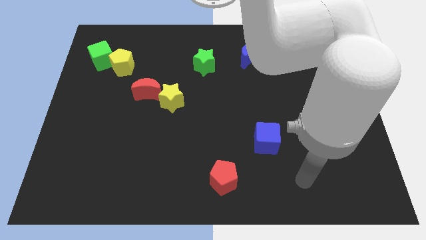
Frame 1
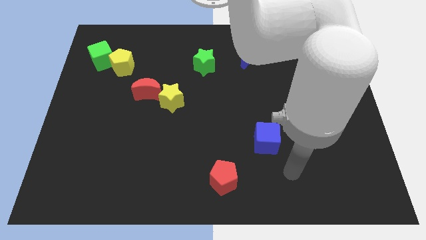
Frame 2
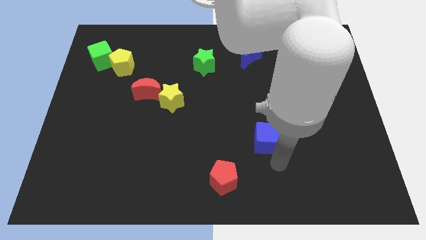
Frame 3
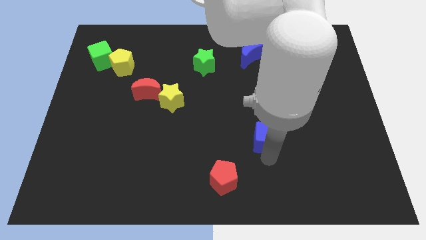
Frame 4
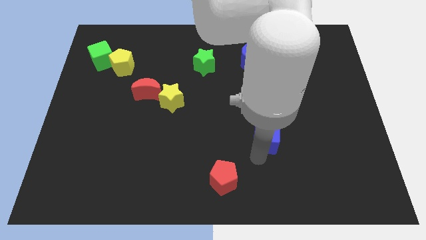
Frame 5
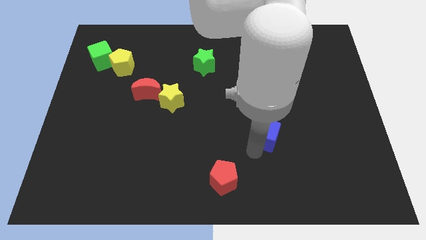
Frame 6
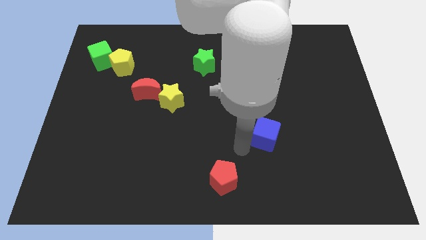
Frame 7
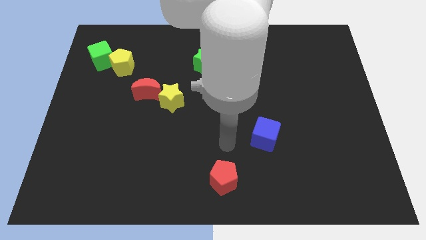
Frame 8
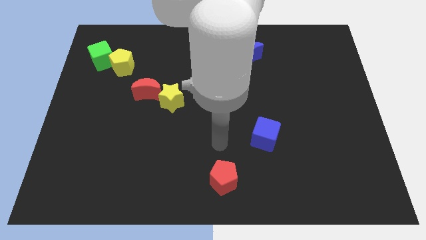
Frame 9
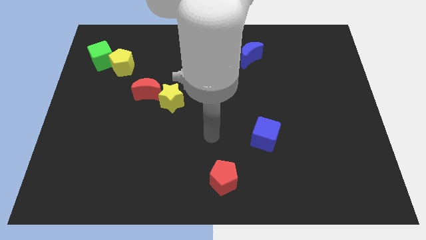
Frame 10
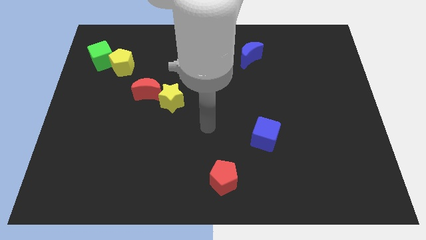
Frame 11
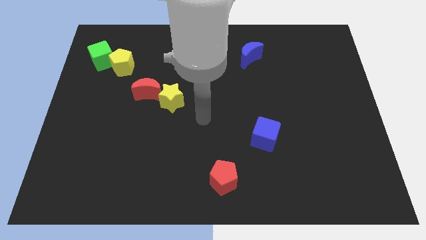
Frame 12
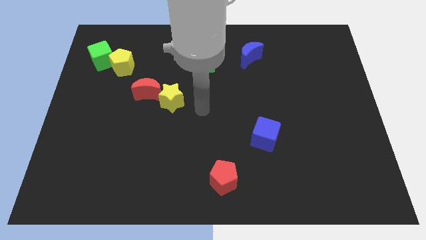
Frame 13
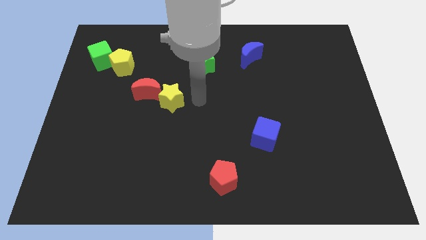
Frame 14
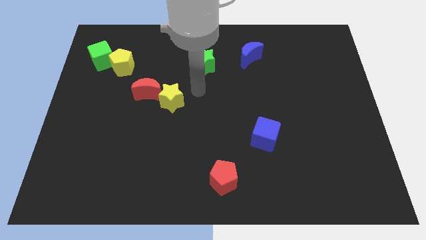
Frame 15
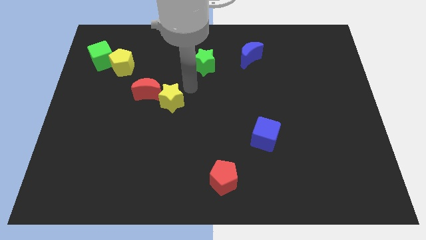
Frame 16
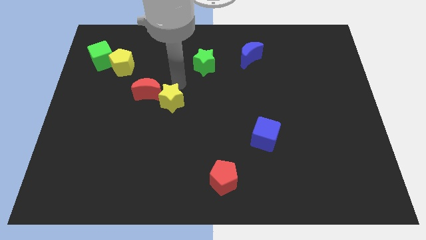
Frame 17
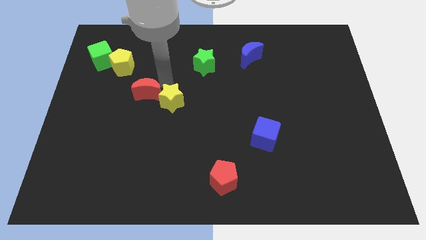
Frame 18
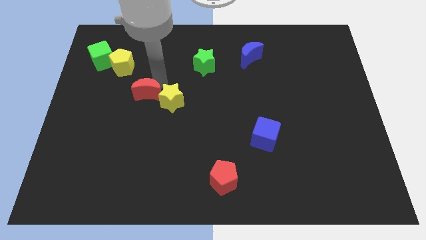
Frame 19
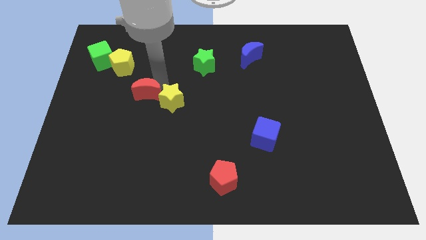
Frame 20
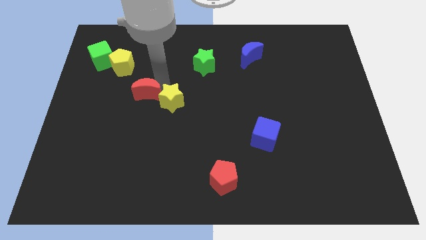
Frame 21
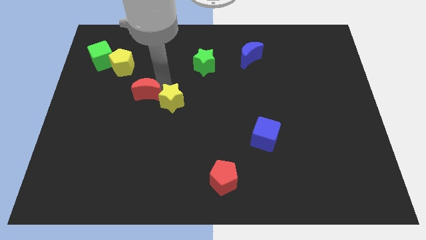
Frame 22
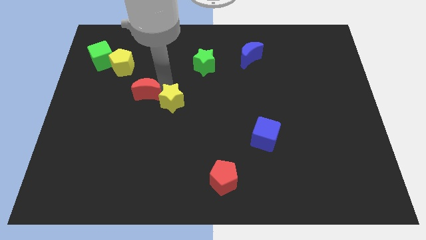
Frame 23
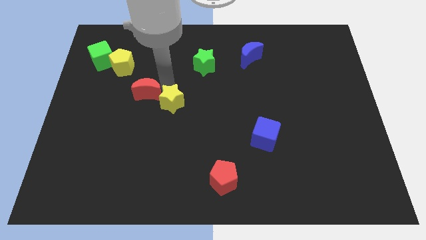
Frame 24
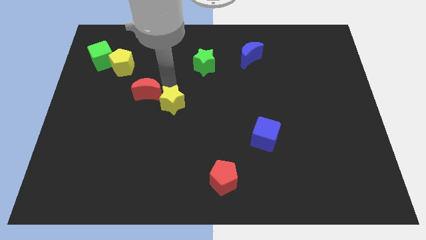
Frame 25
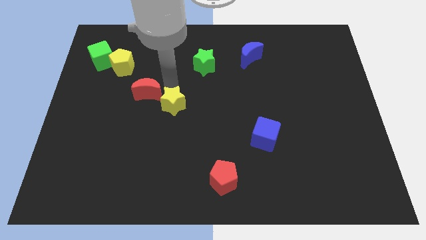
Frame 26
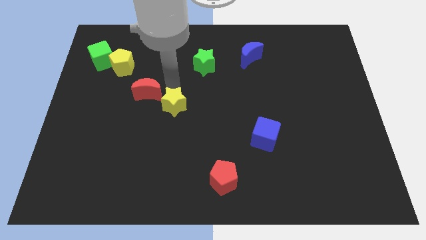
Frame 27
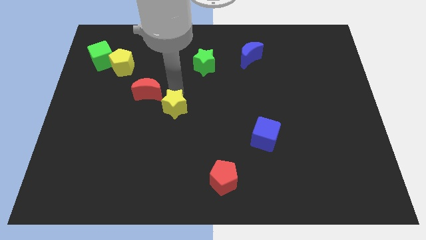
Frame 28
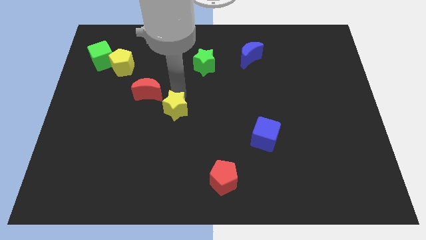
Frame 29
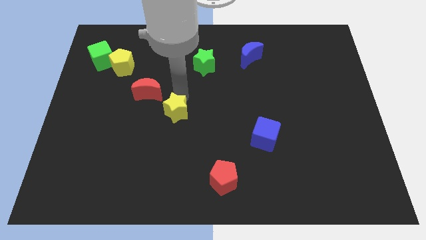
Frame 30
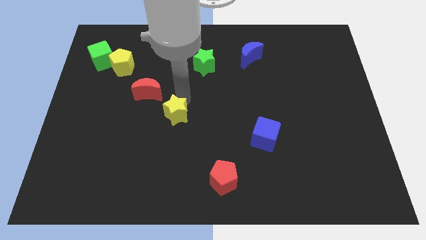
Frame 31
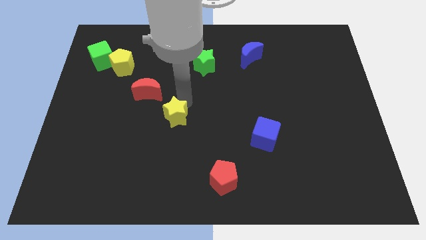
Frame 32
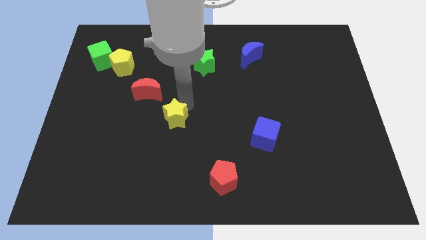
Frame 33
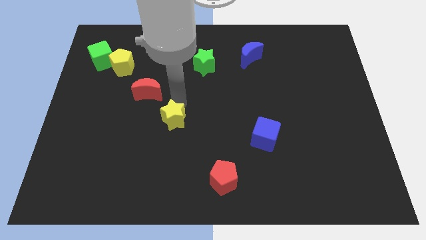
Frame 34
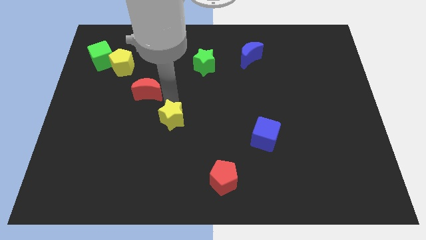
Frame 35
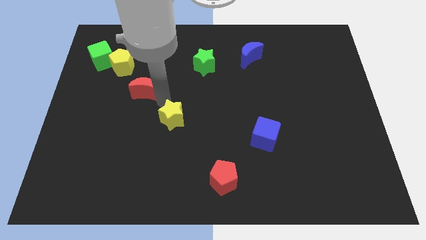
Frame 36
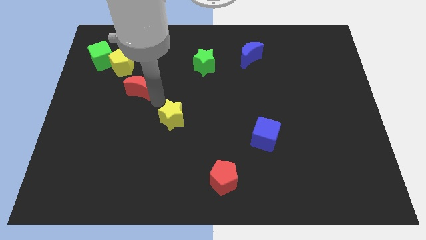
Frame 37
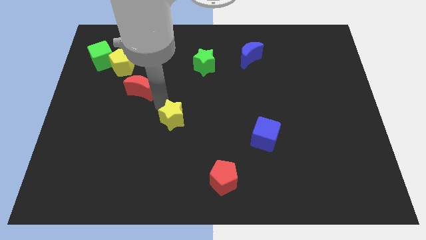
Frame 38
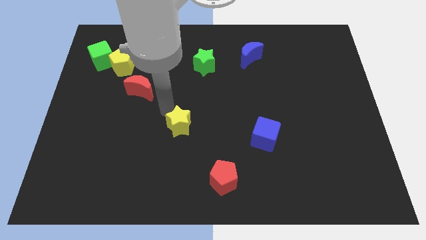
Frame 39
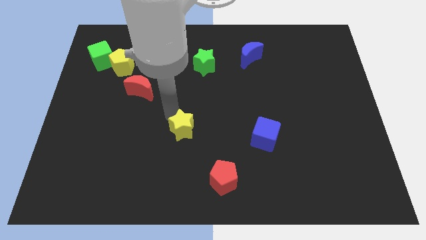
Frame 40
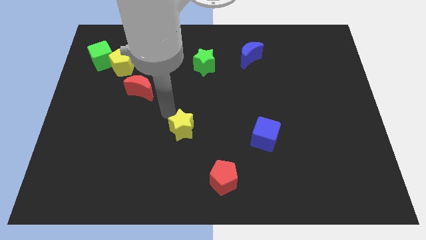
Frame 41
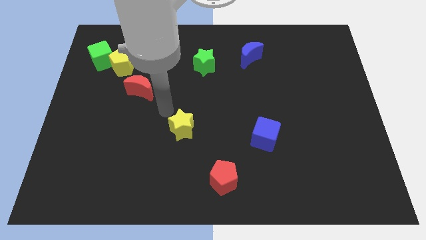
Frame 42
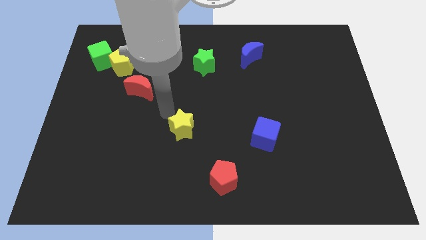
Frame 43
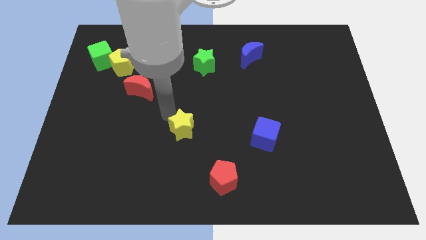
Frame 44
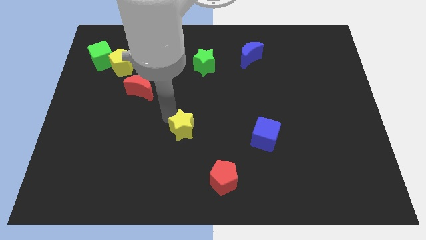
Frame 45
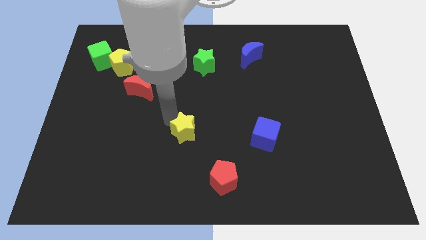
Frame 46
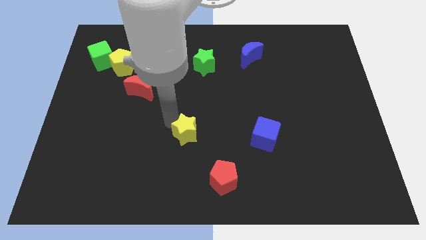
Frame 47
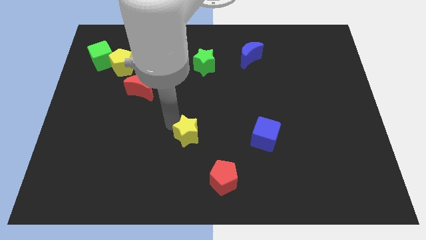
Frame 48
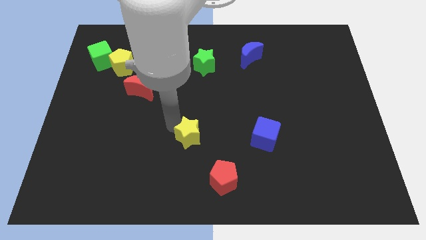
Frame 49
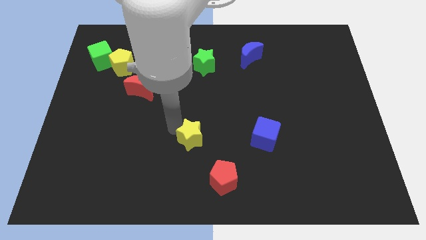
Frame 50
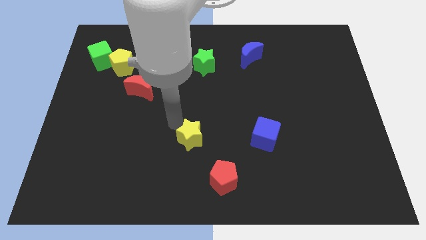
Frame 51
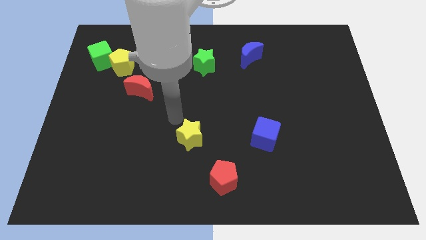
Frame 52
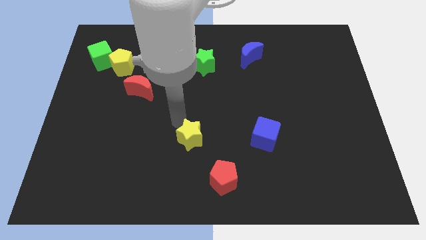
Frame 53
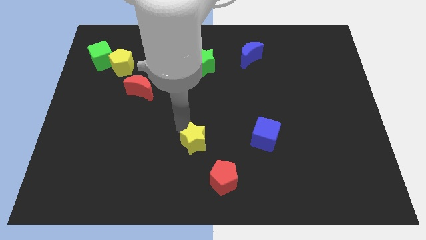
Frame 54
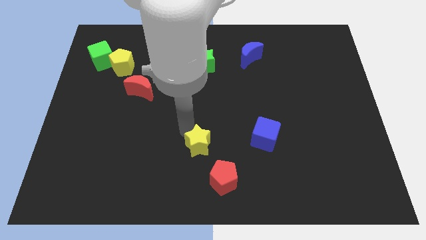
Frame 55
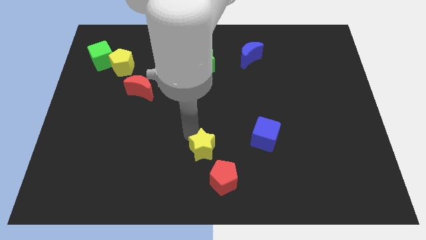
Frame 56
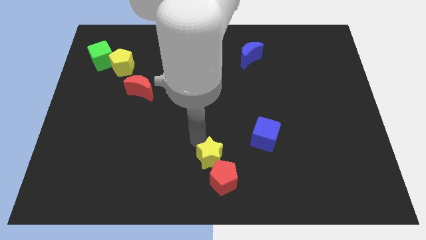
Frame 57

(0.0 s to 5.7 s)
move the yellow star close to the red pentagon

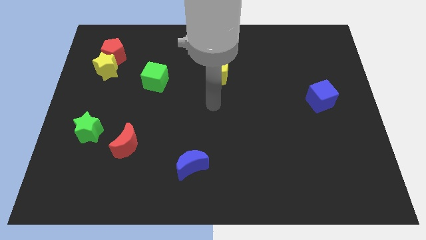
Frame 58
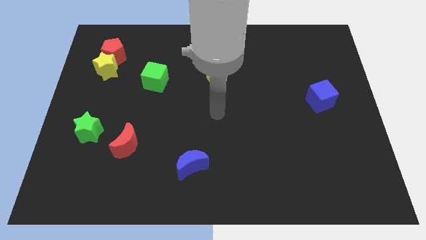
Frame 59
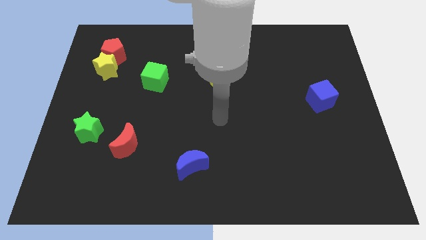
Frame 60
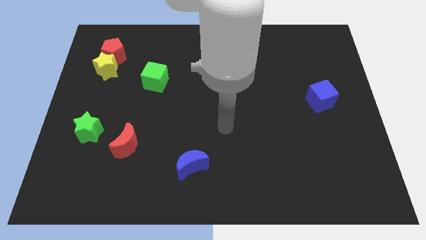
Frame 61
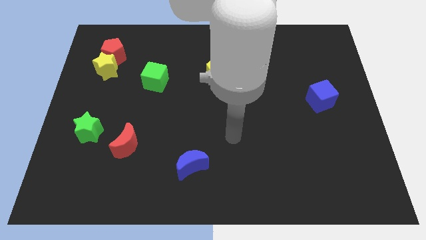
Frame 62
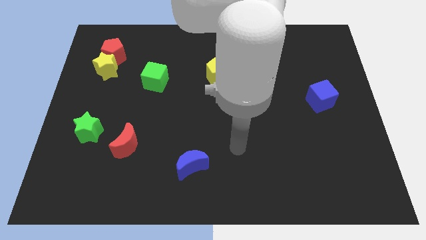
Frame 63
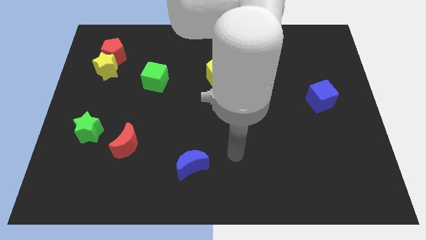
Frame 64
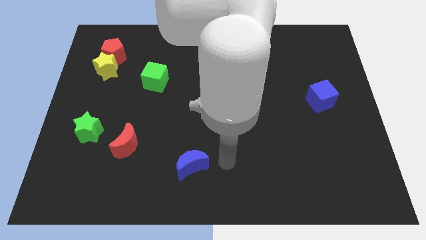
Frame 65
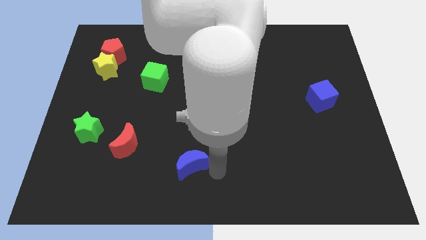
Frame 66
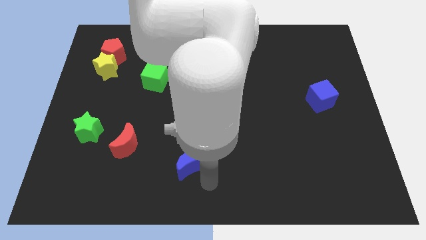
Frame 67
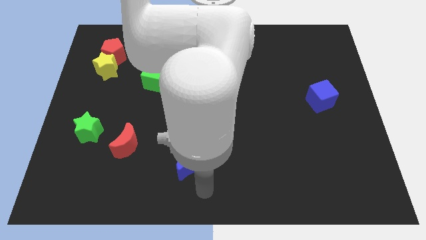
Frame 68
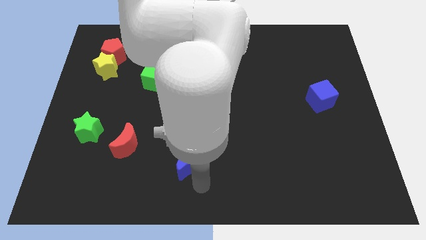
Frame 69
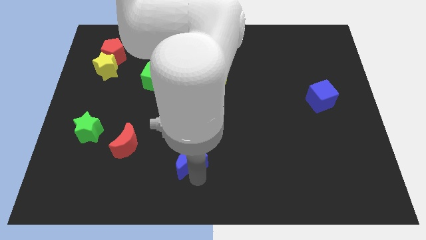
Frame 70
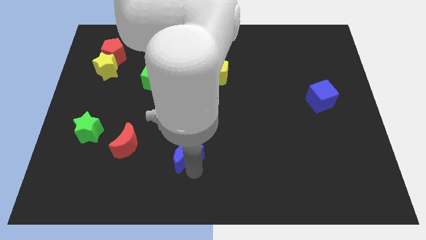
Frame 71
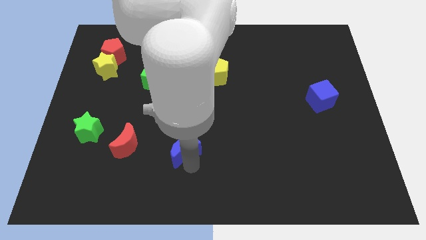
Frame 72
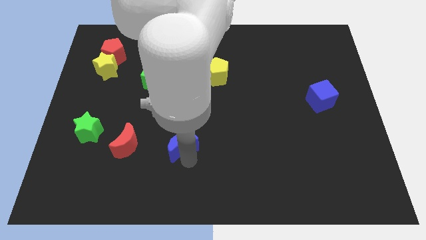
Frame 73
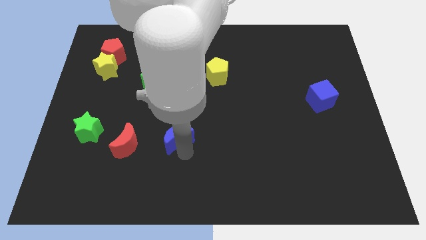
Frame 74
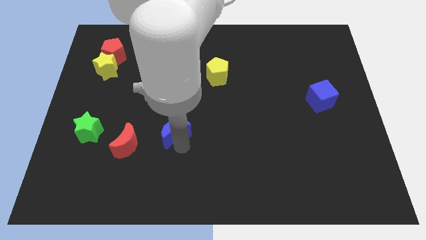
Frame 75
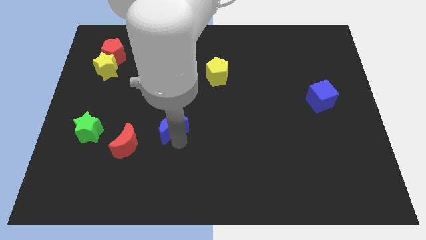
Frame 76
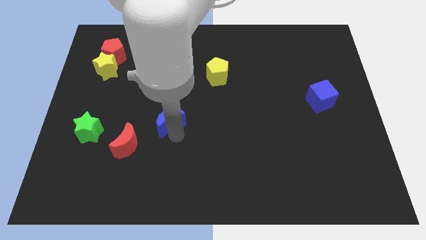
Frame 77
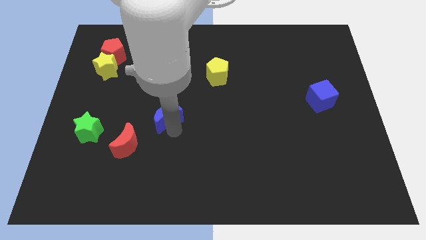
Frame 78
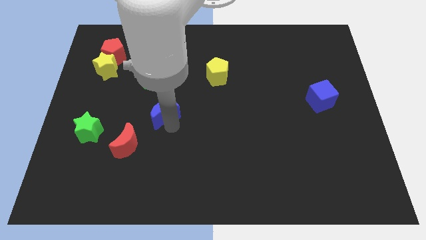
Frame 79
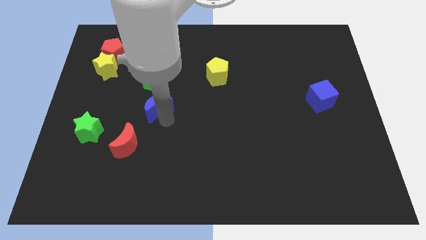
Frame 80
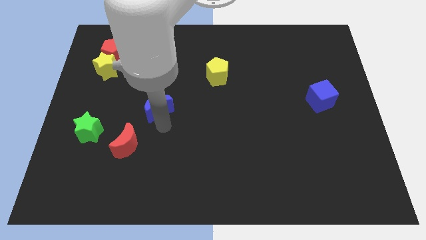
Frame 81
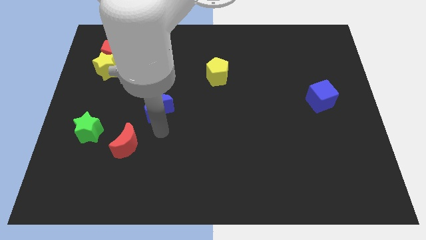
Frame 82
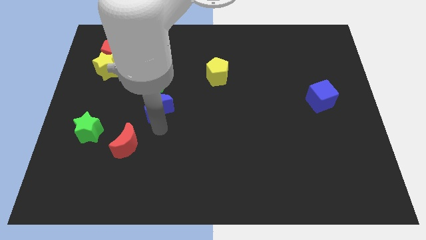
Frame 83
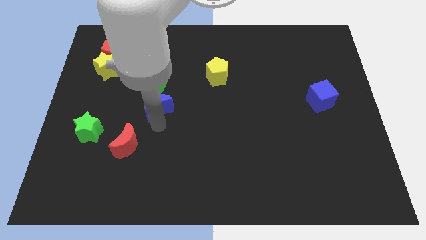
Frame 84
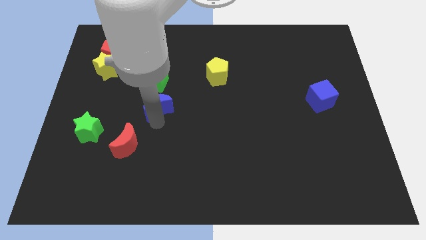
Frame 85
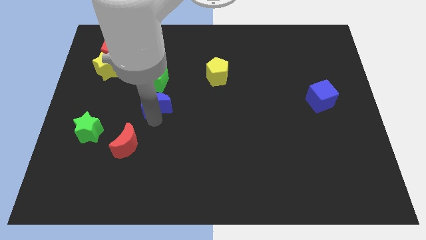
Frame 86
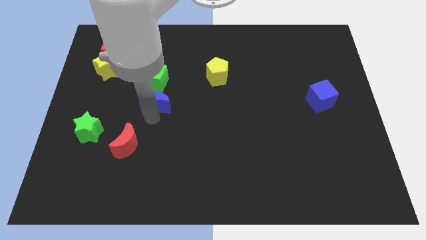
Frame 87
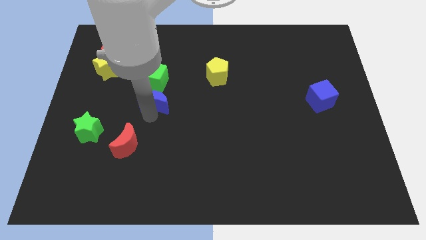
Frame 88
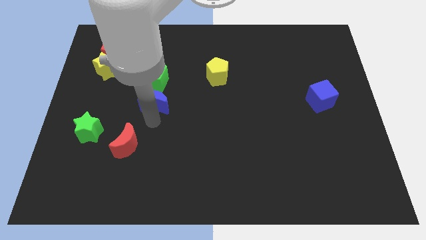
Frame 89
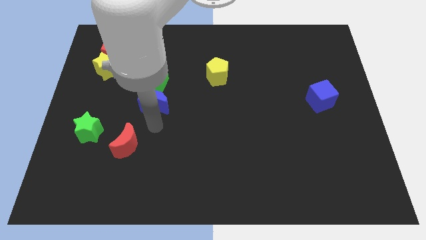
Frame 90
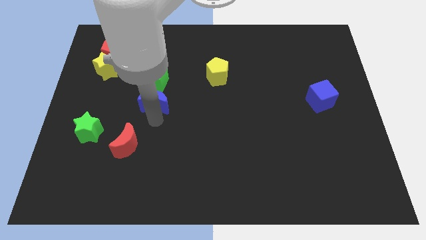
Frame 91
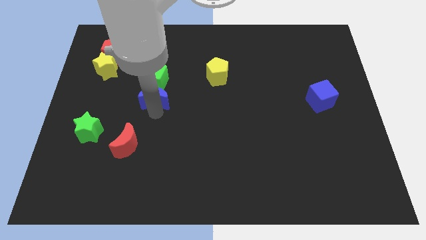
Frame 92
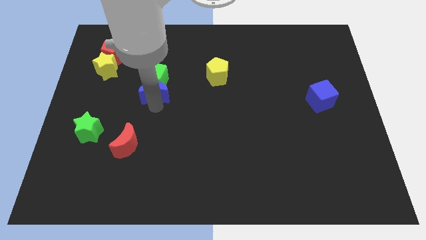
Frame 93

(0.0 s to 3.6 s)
push the blue moon to the green cube
